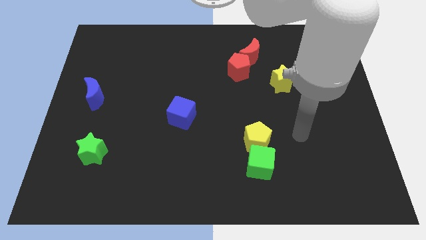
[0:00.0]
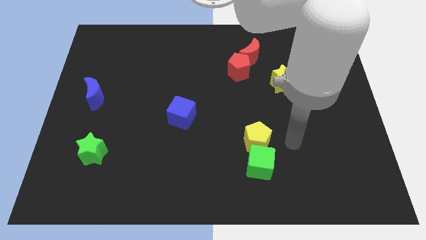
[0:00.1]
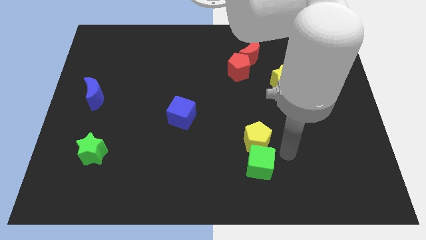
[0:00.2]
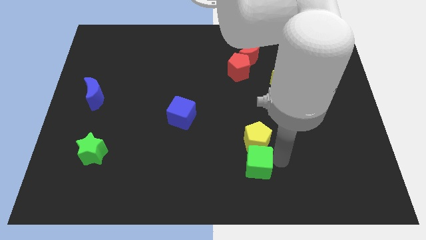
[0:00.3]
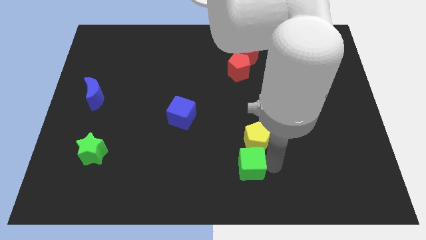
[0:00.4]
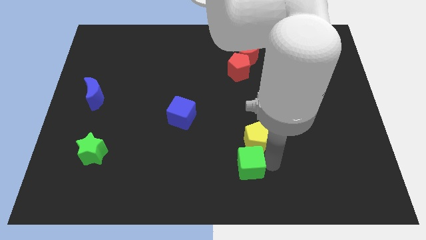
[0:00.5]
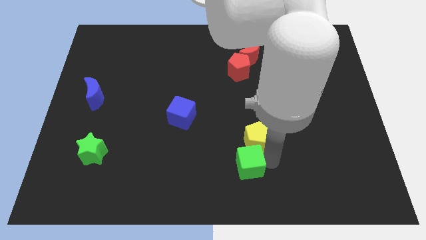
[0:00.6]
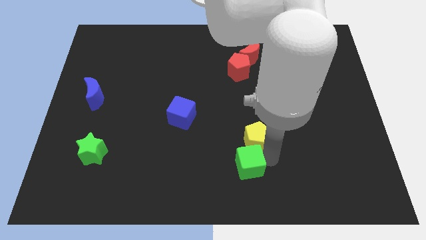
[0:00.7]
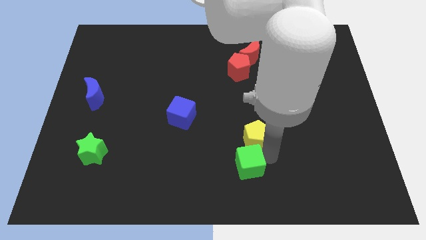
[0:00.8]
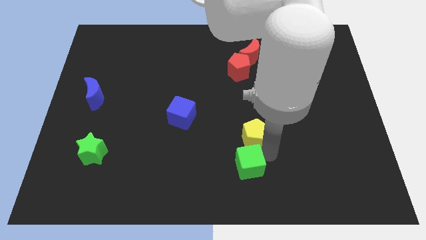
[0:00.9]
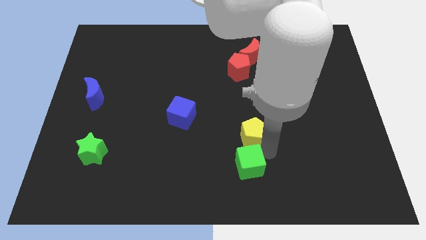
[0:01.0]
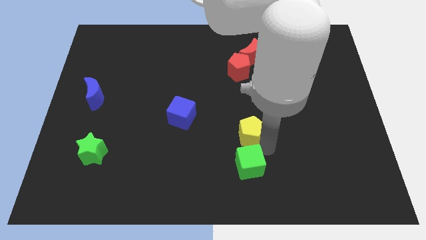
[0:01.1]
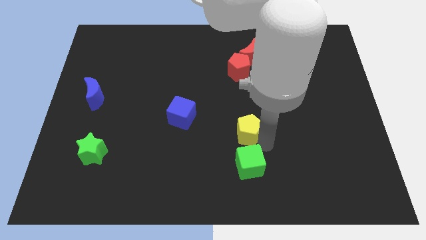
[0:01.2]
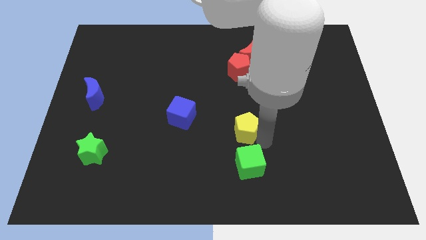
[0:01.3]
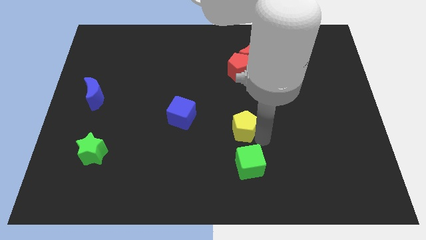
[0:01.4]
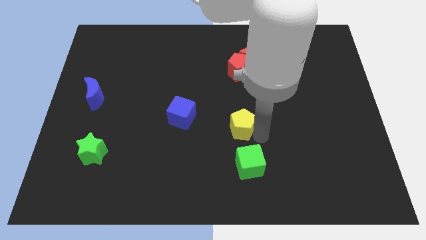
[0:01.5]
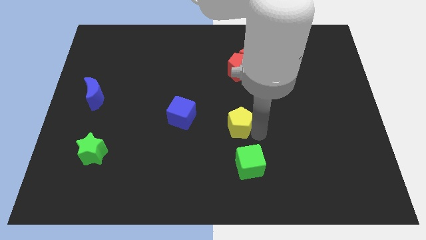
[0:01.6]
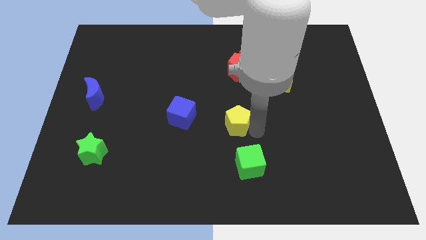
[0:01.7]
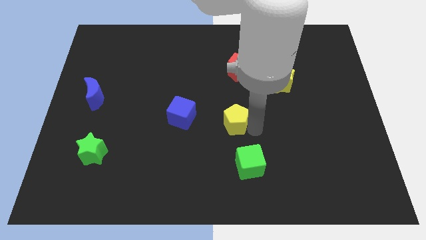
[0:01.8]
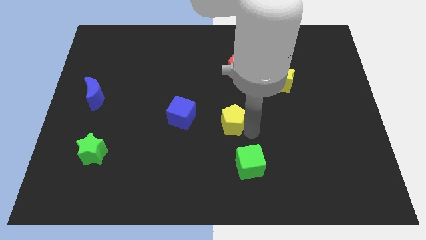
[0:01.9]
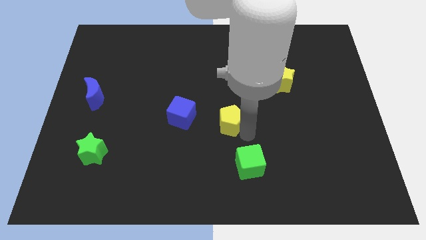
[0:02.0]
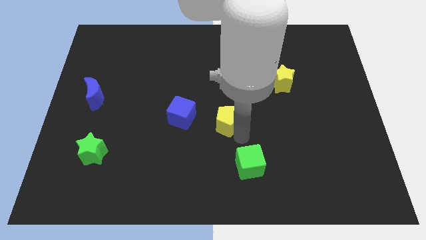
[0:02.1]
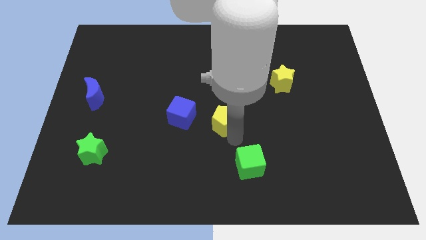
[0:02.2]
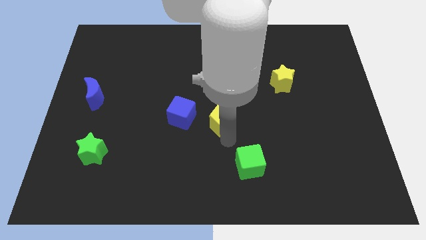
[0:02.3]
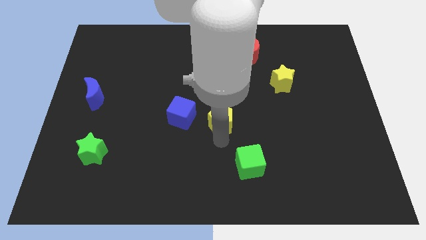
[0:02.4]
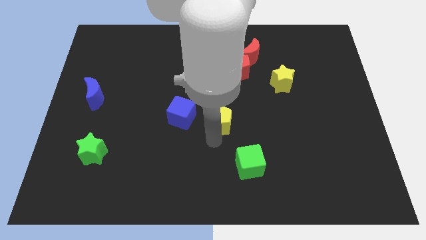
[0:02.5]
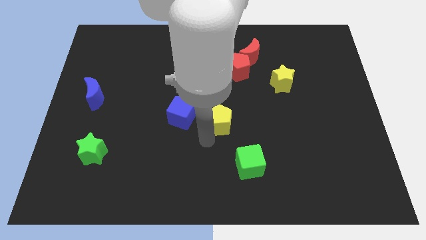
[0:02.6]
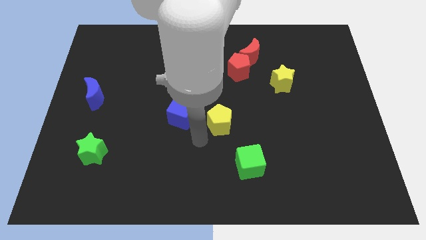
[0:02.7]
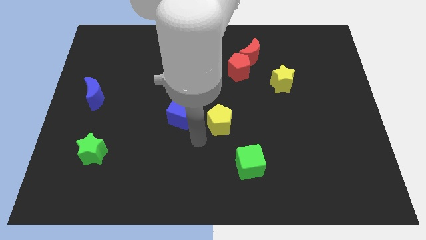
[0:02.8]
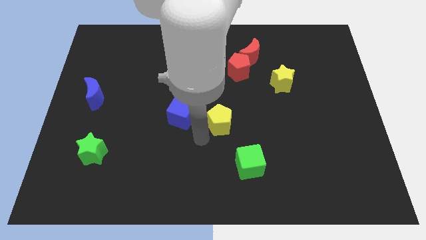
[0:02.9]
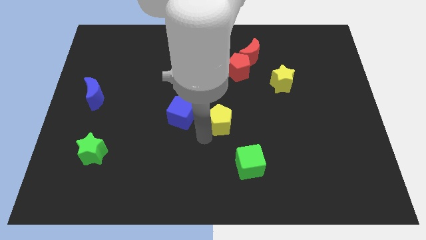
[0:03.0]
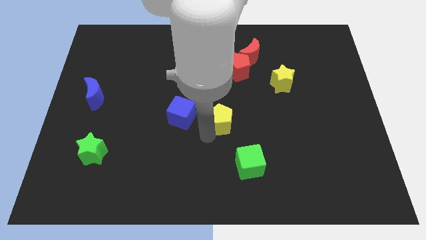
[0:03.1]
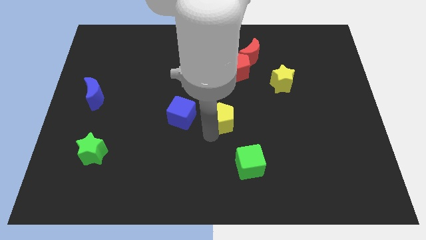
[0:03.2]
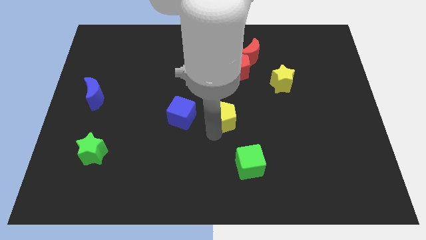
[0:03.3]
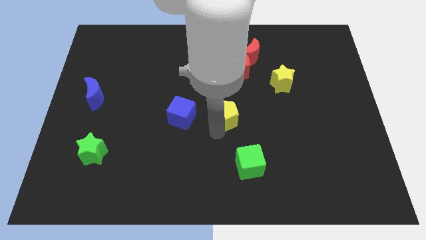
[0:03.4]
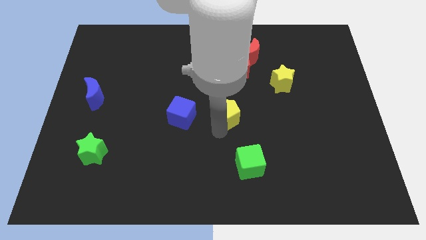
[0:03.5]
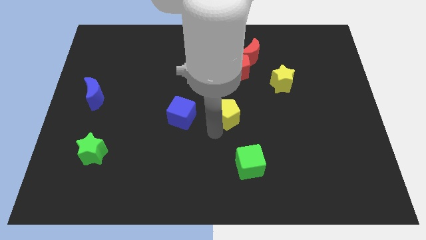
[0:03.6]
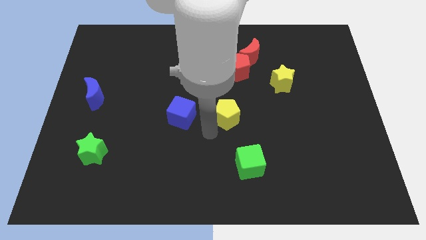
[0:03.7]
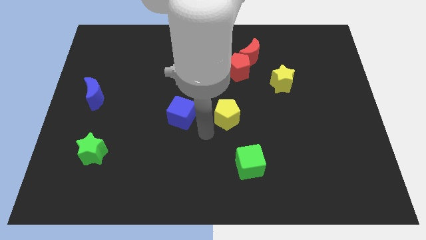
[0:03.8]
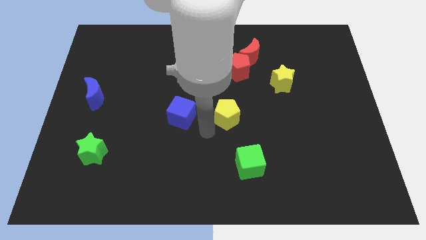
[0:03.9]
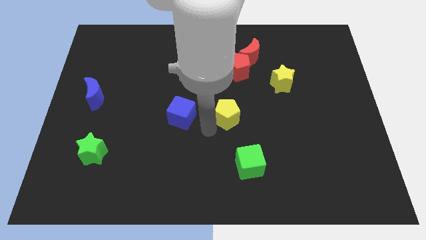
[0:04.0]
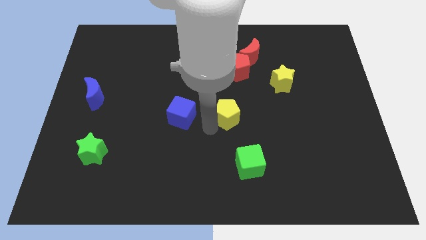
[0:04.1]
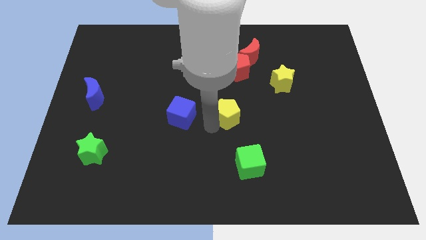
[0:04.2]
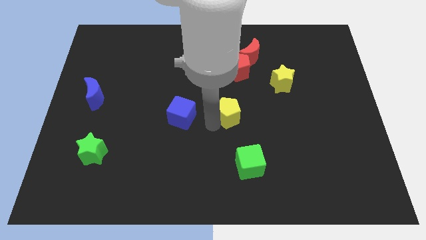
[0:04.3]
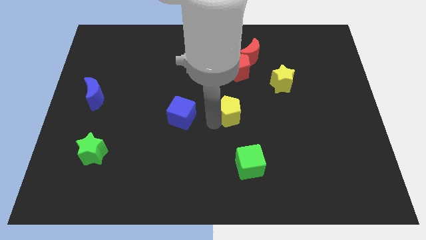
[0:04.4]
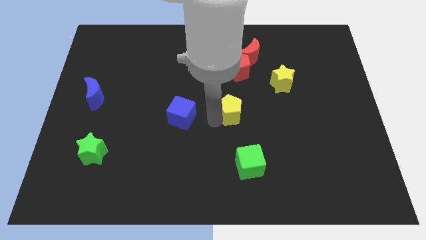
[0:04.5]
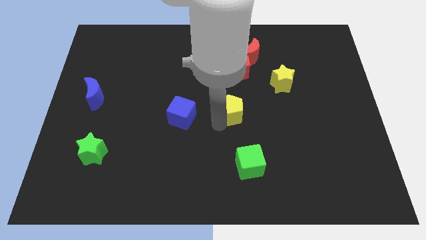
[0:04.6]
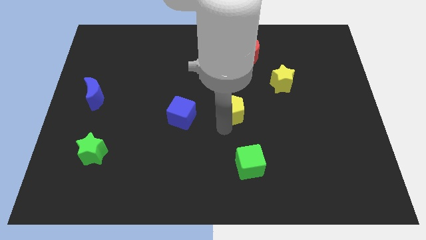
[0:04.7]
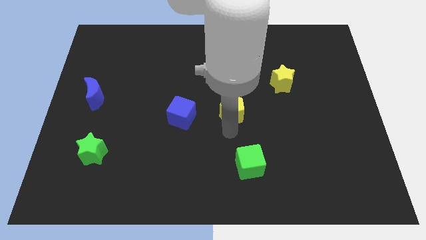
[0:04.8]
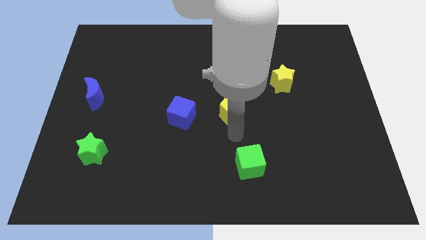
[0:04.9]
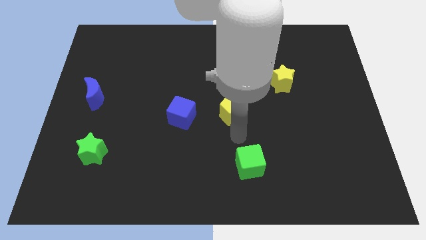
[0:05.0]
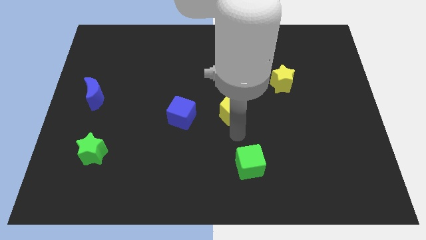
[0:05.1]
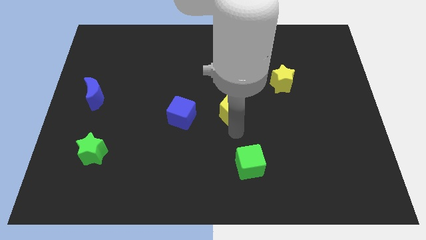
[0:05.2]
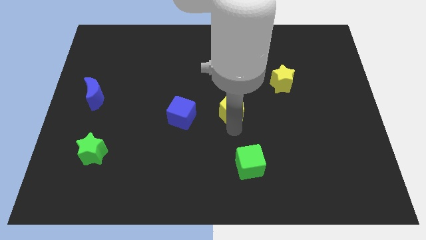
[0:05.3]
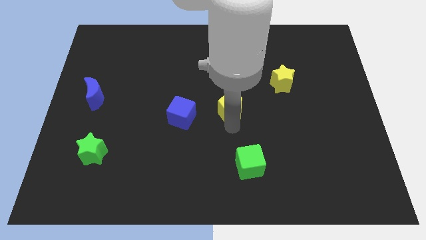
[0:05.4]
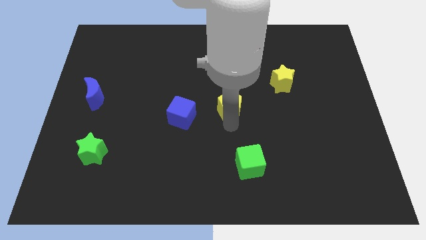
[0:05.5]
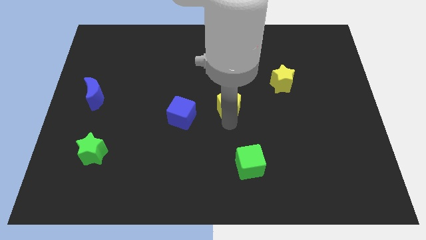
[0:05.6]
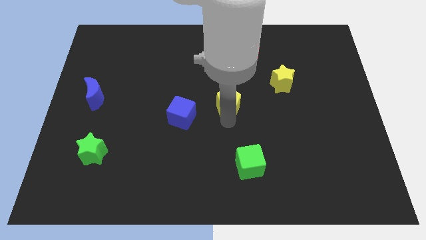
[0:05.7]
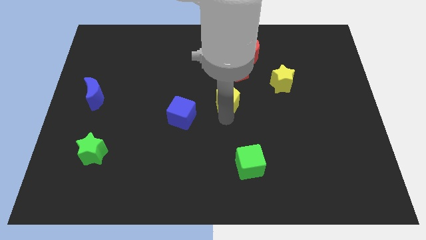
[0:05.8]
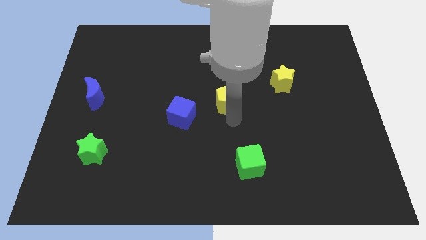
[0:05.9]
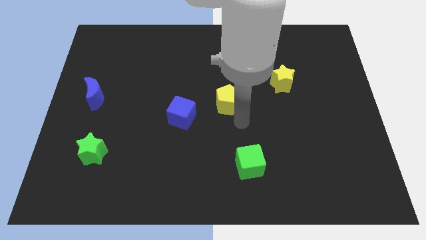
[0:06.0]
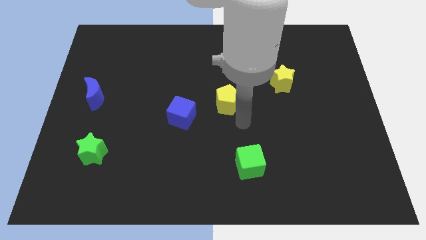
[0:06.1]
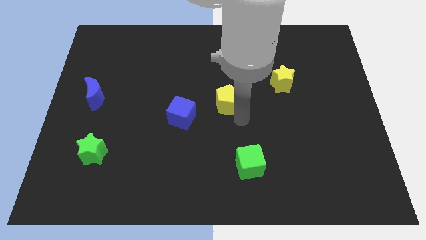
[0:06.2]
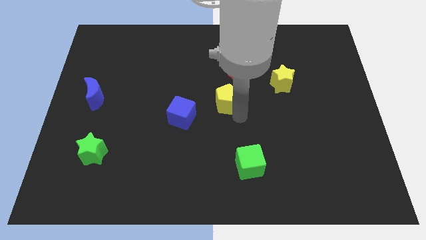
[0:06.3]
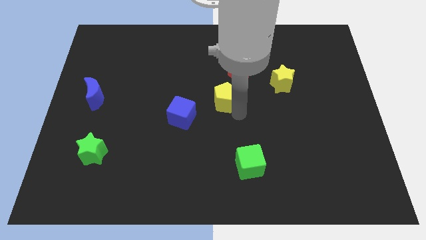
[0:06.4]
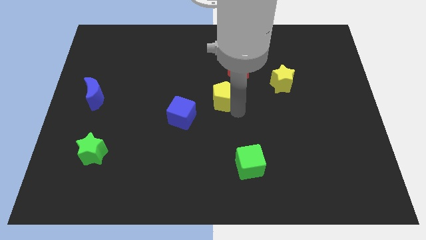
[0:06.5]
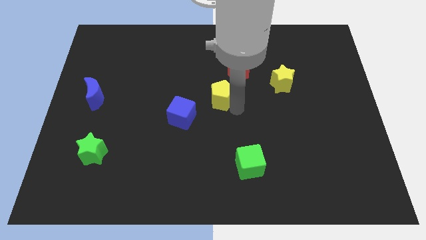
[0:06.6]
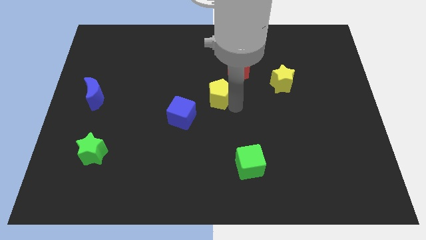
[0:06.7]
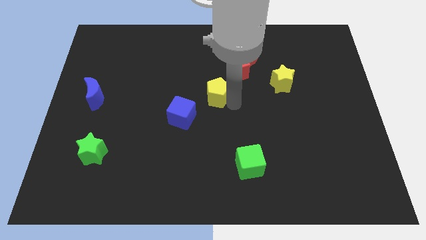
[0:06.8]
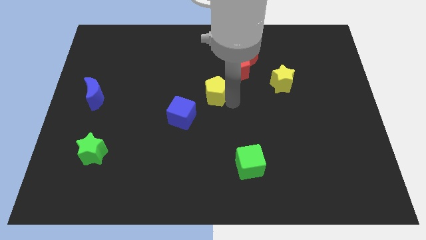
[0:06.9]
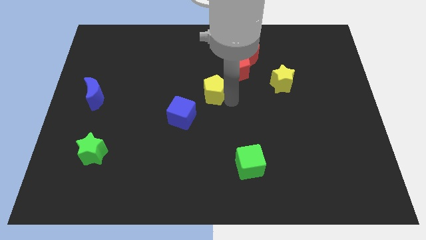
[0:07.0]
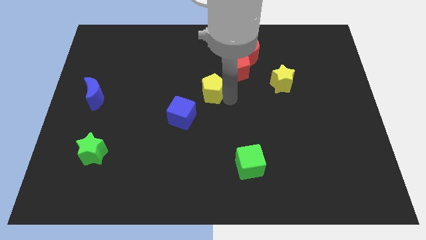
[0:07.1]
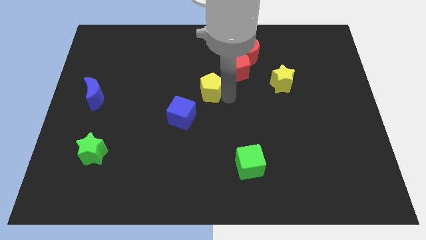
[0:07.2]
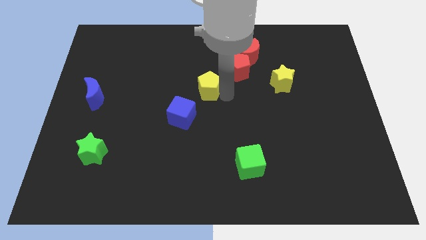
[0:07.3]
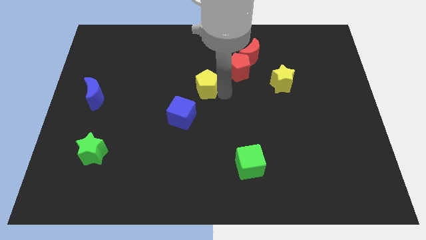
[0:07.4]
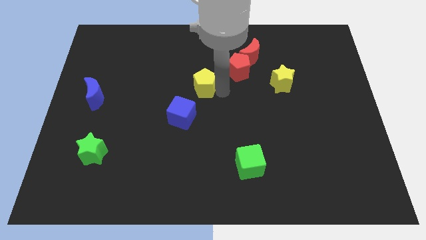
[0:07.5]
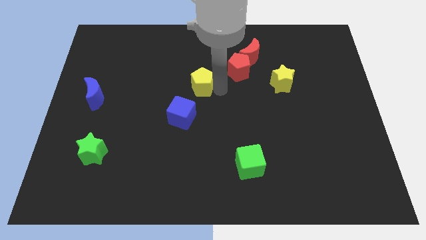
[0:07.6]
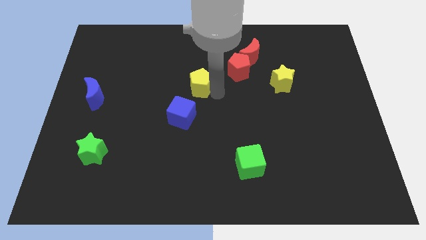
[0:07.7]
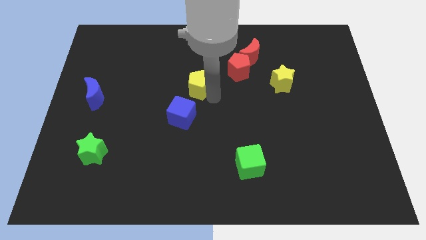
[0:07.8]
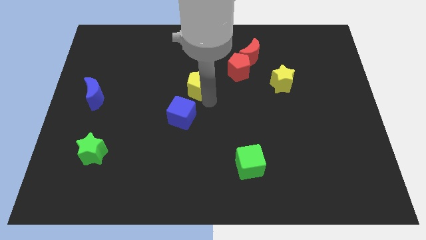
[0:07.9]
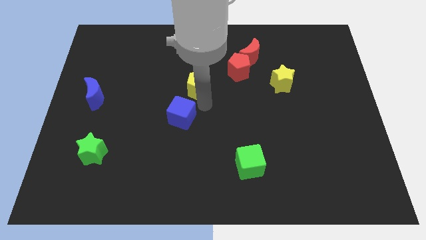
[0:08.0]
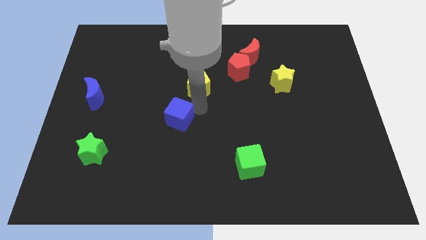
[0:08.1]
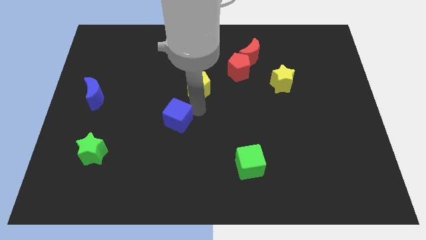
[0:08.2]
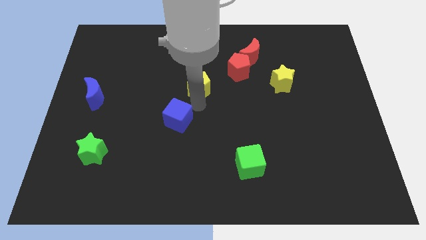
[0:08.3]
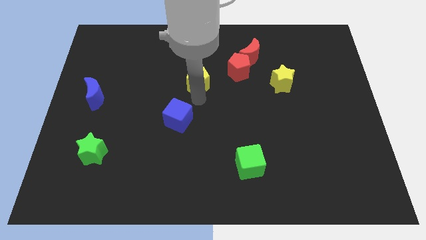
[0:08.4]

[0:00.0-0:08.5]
put the yellow pentagon just left of the red pentagon
